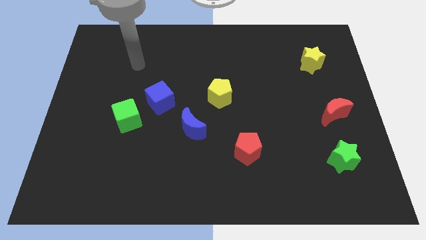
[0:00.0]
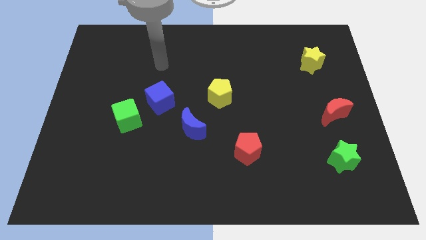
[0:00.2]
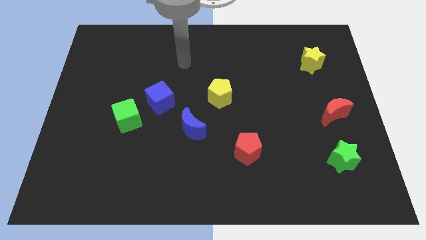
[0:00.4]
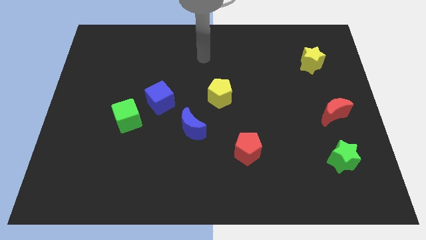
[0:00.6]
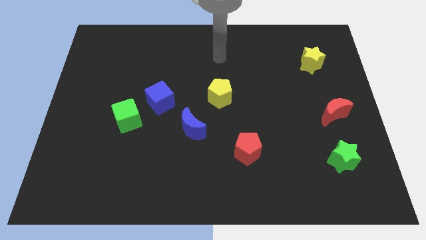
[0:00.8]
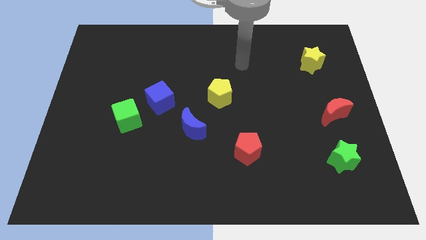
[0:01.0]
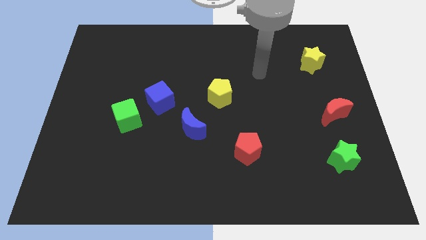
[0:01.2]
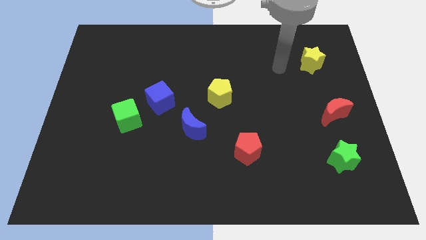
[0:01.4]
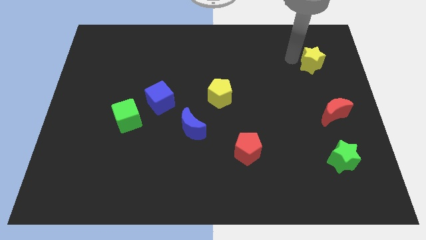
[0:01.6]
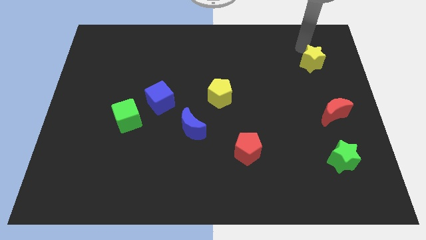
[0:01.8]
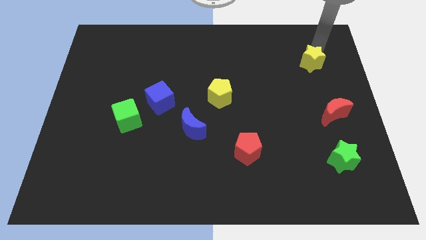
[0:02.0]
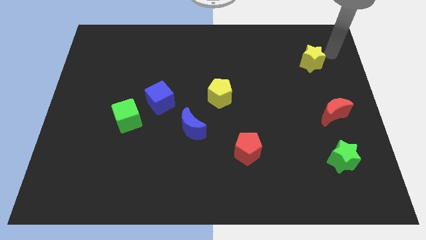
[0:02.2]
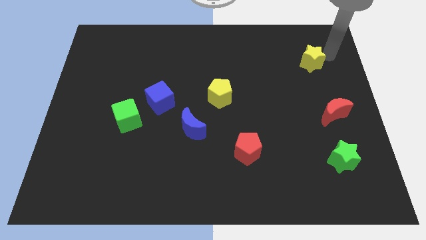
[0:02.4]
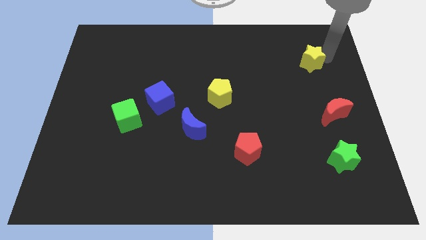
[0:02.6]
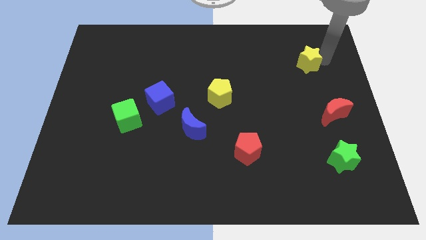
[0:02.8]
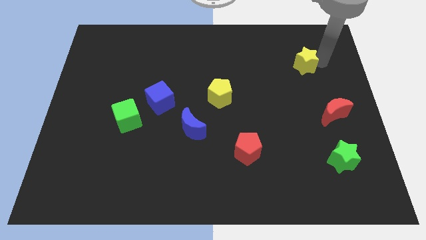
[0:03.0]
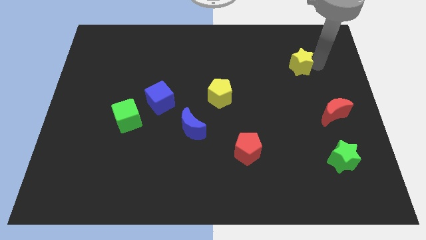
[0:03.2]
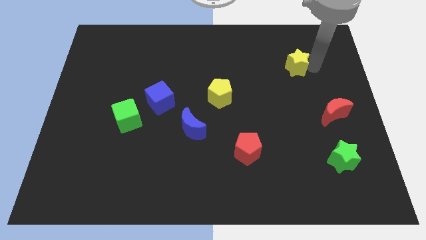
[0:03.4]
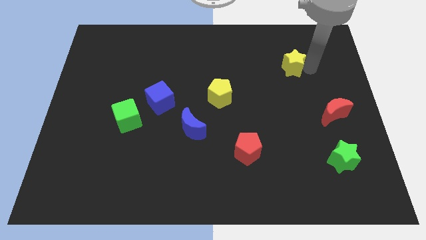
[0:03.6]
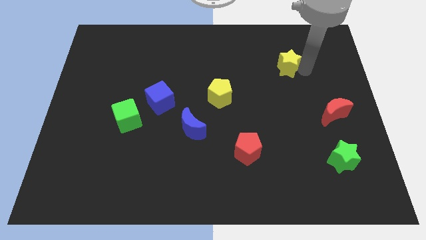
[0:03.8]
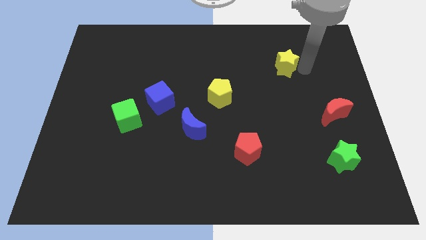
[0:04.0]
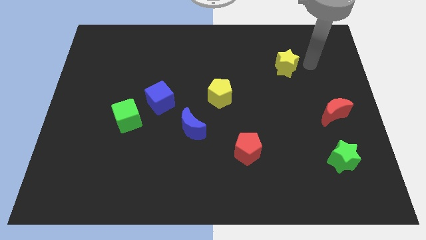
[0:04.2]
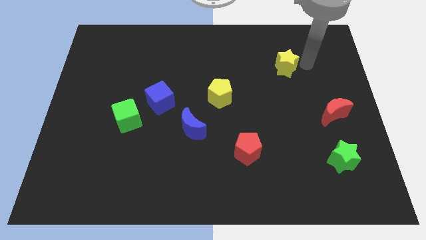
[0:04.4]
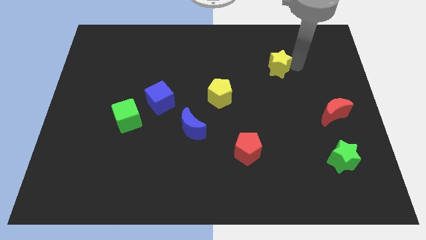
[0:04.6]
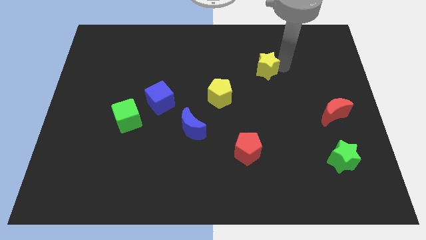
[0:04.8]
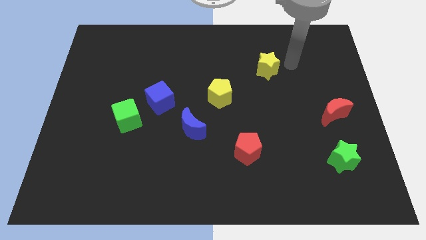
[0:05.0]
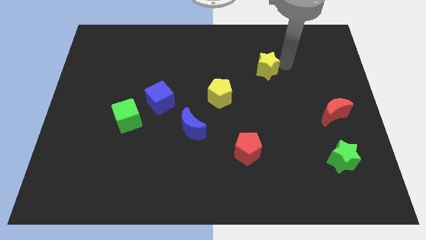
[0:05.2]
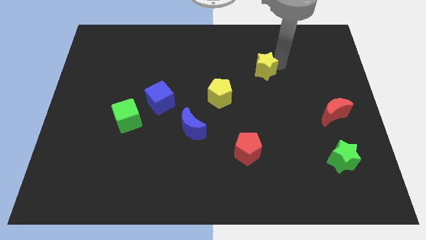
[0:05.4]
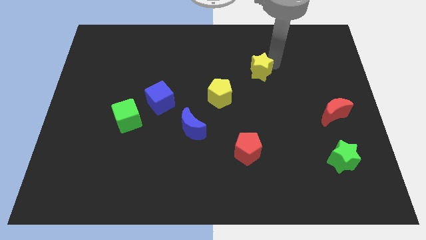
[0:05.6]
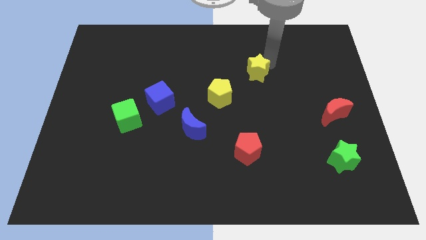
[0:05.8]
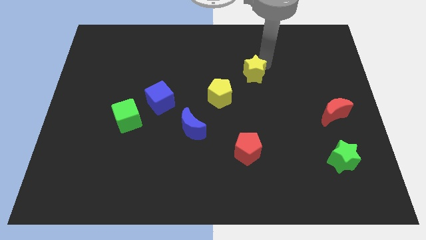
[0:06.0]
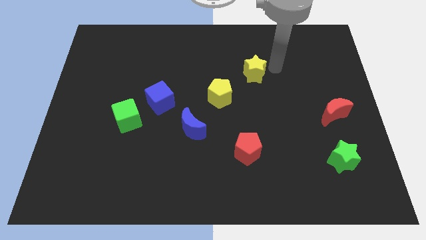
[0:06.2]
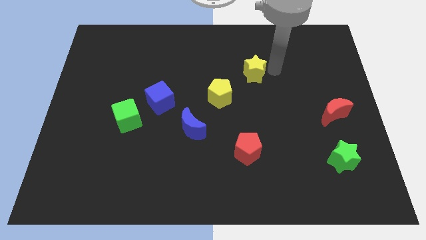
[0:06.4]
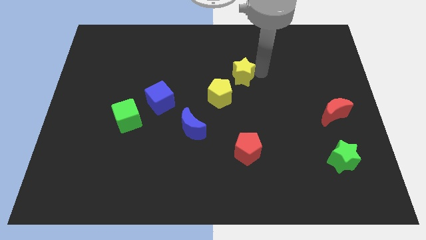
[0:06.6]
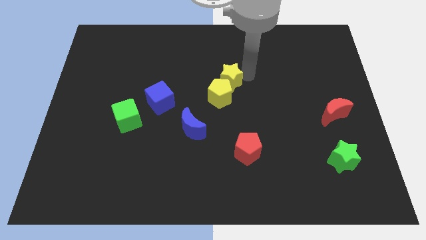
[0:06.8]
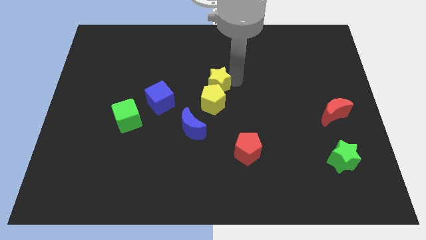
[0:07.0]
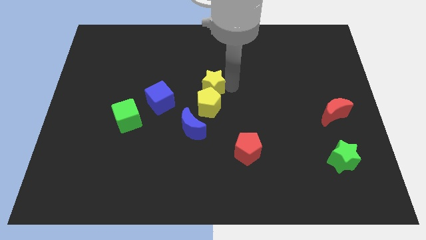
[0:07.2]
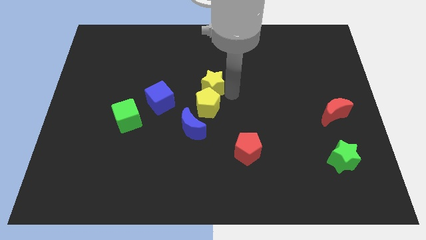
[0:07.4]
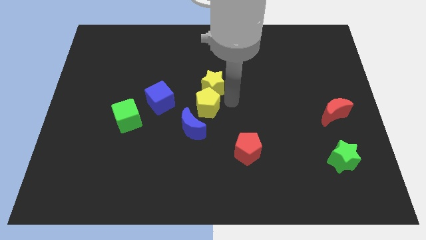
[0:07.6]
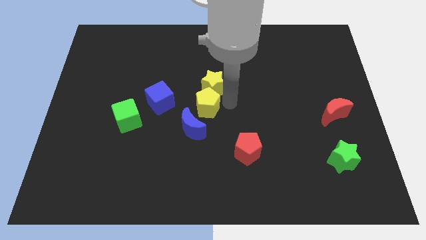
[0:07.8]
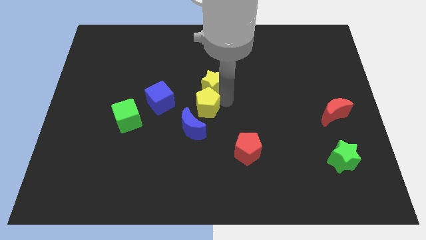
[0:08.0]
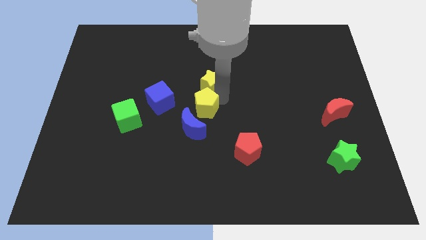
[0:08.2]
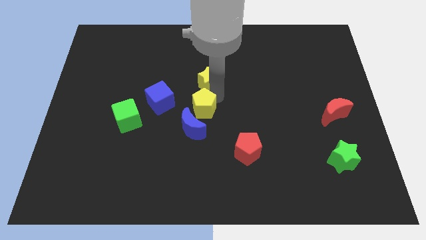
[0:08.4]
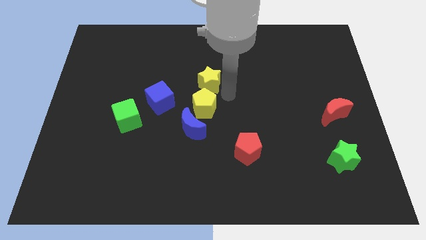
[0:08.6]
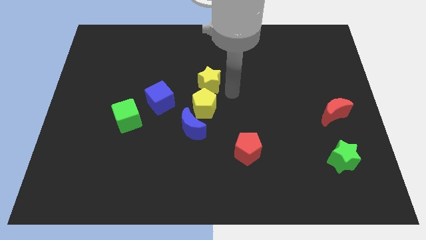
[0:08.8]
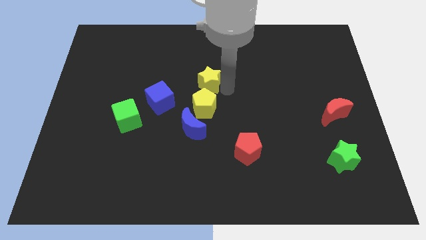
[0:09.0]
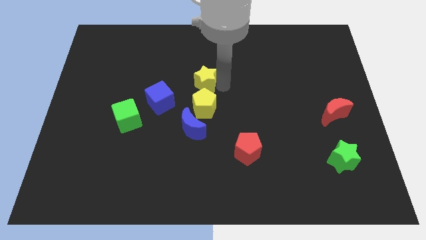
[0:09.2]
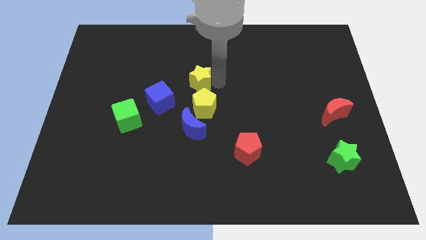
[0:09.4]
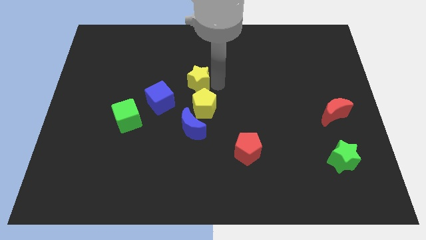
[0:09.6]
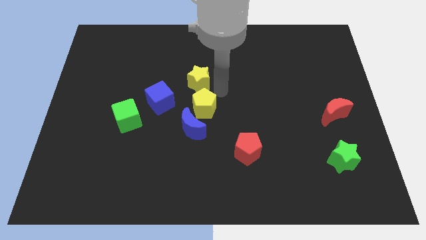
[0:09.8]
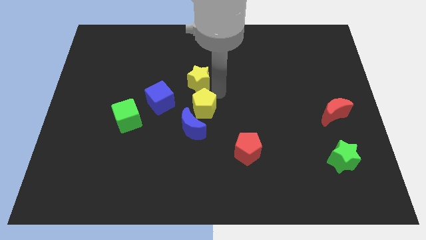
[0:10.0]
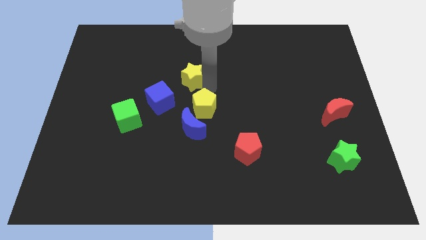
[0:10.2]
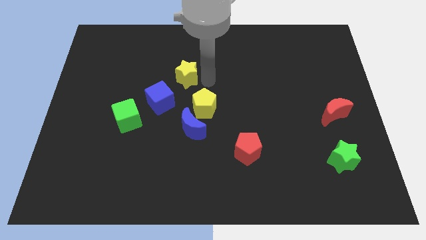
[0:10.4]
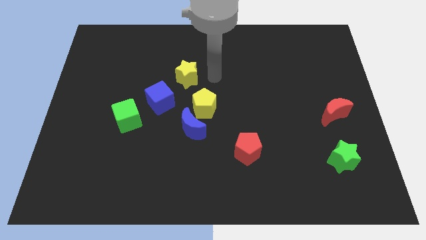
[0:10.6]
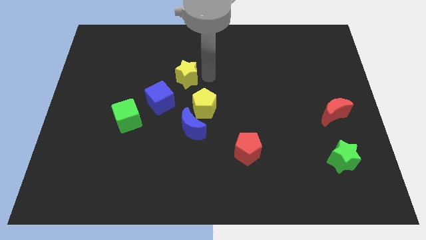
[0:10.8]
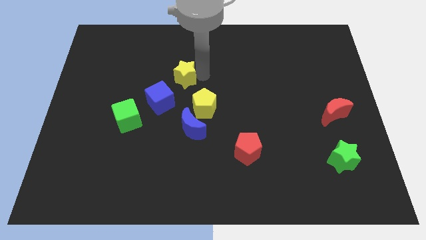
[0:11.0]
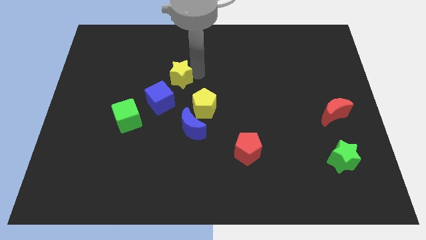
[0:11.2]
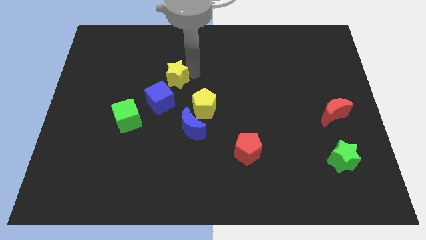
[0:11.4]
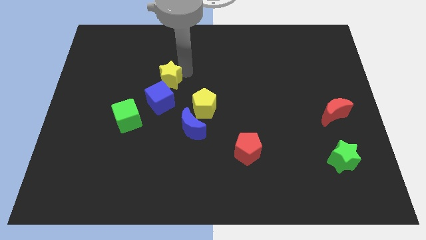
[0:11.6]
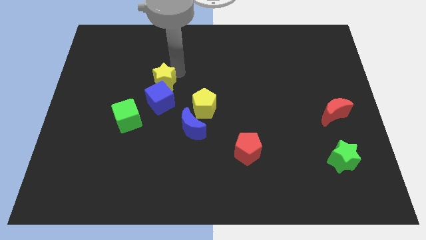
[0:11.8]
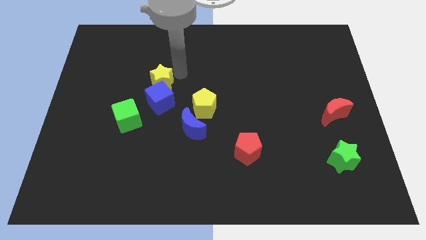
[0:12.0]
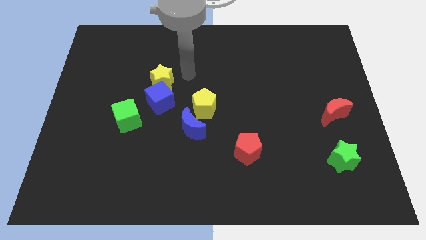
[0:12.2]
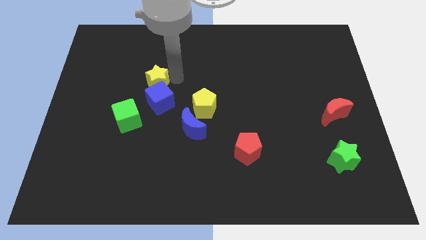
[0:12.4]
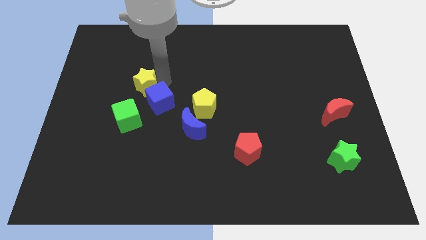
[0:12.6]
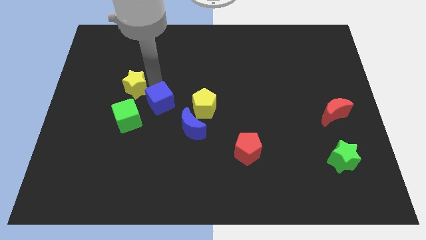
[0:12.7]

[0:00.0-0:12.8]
move the yellow star just left of the blue cube

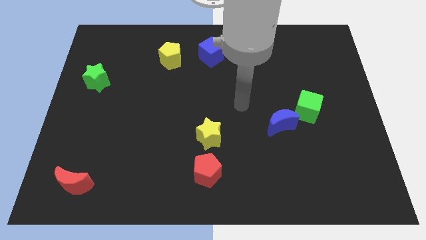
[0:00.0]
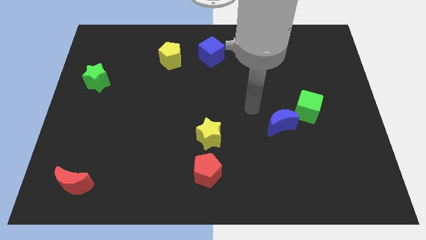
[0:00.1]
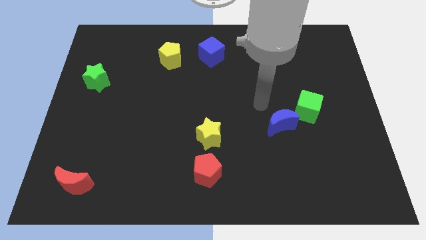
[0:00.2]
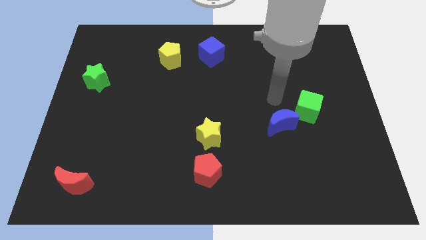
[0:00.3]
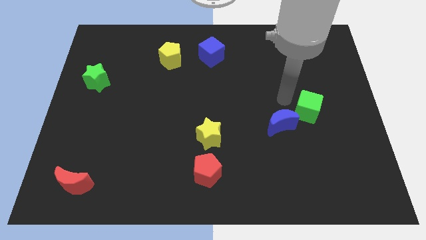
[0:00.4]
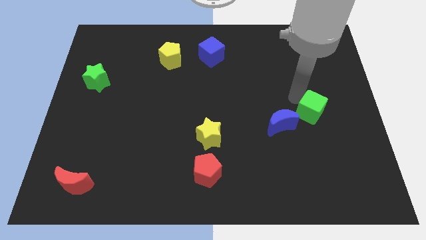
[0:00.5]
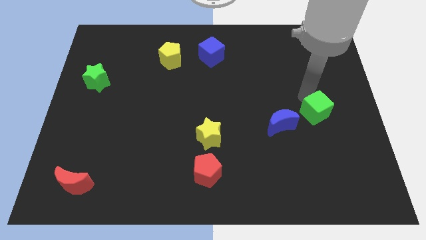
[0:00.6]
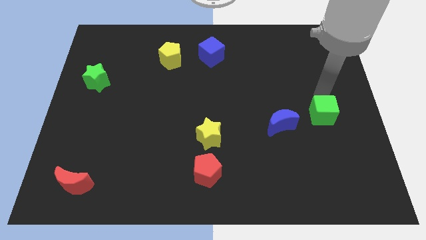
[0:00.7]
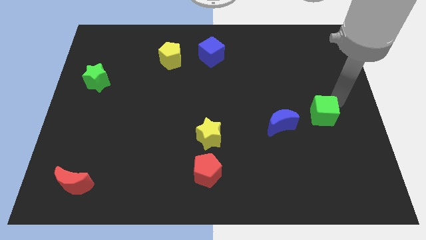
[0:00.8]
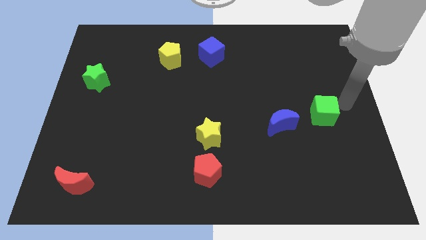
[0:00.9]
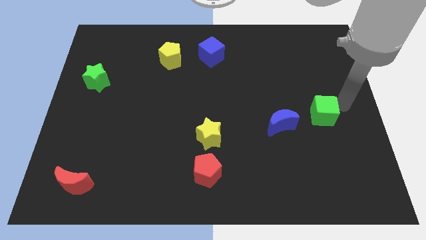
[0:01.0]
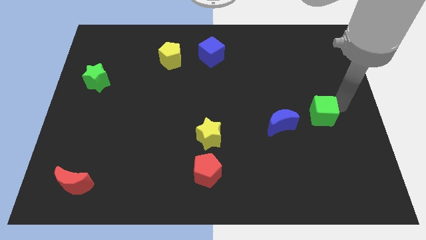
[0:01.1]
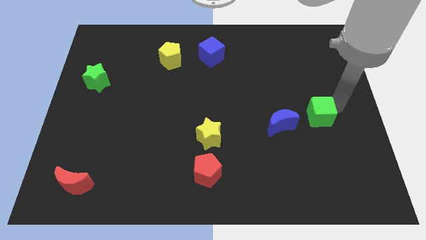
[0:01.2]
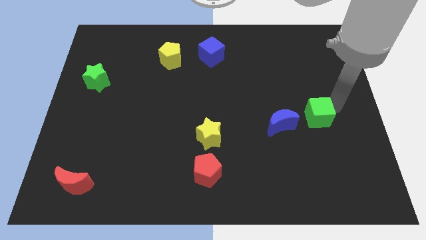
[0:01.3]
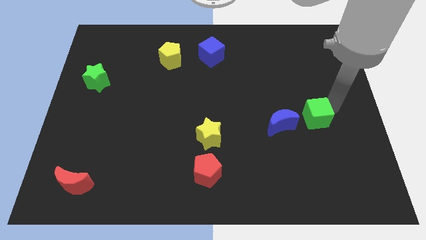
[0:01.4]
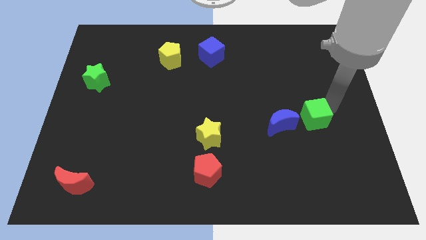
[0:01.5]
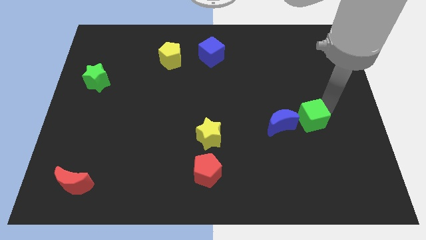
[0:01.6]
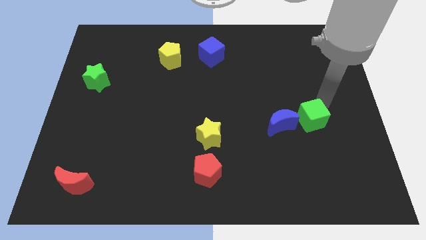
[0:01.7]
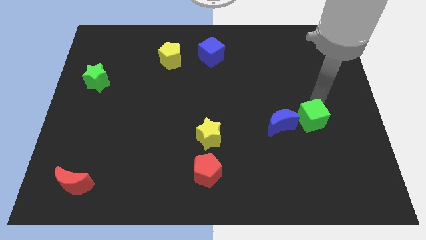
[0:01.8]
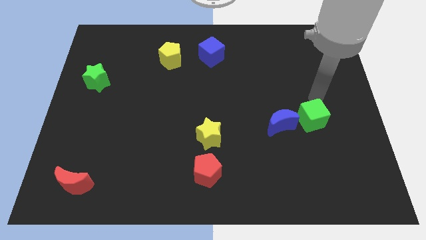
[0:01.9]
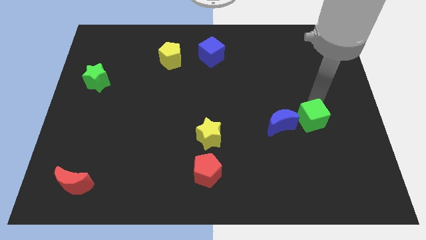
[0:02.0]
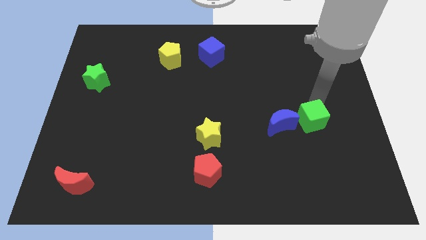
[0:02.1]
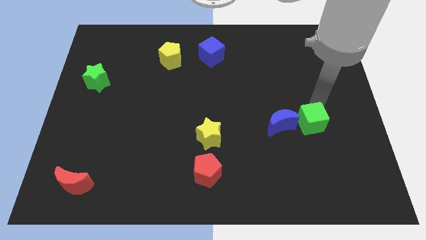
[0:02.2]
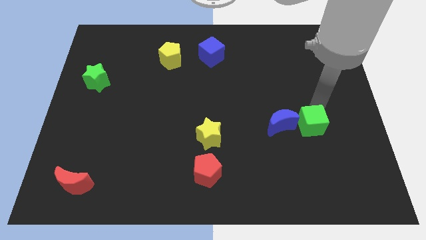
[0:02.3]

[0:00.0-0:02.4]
slide the green cube to the bottom right side of the blue moon
